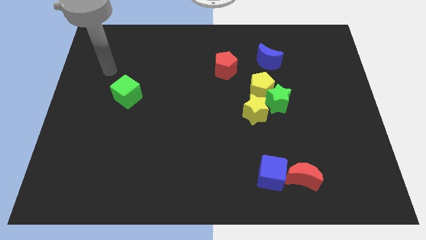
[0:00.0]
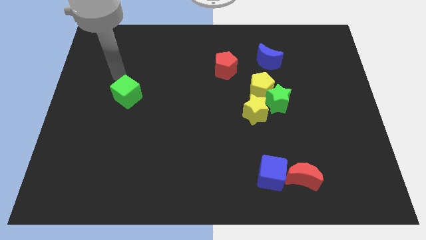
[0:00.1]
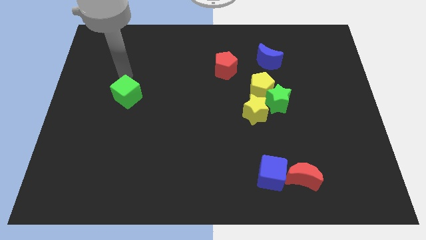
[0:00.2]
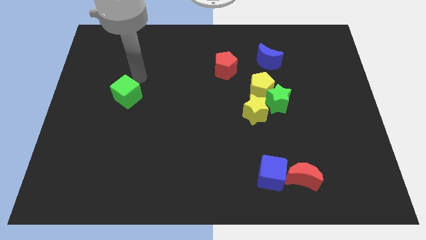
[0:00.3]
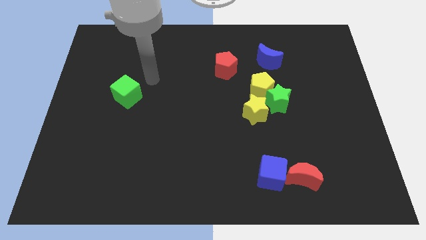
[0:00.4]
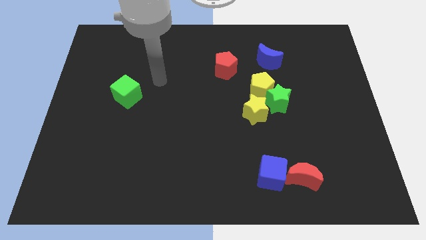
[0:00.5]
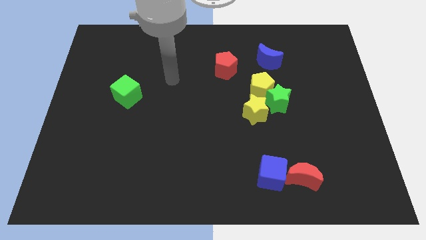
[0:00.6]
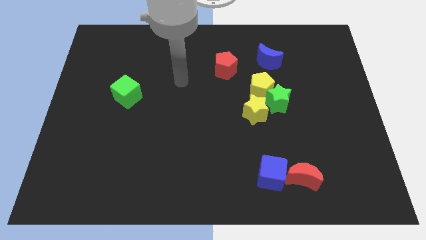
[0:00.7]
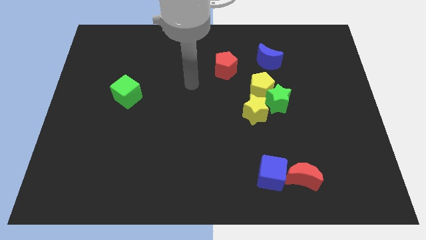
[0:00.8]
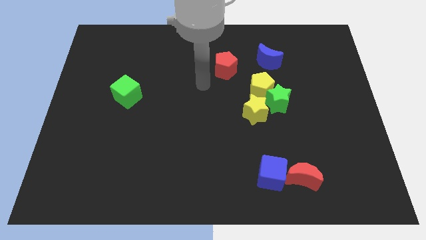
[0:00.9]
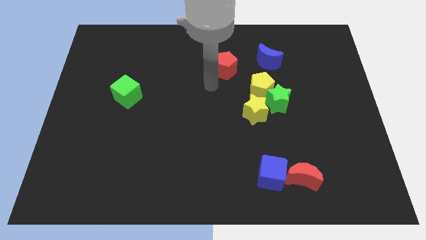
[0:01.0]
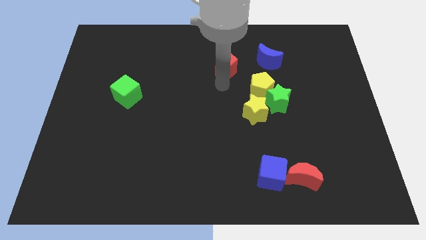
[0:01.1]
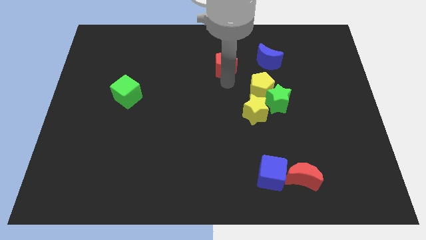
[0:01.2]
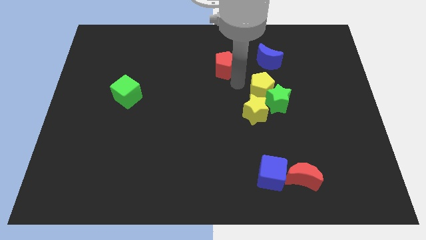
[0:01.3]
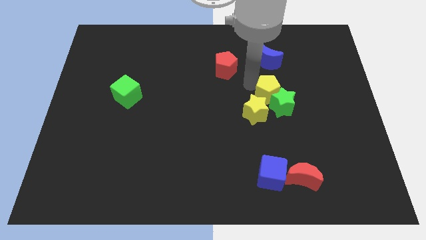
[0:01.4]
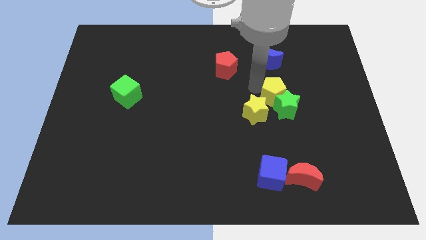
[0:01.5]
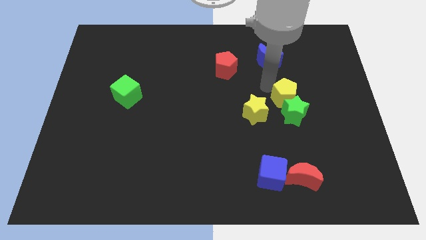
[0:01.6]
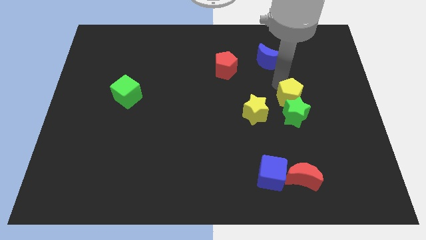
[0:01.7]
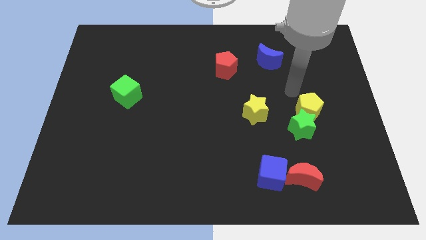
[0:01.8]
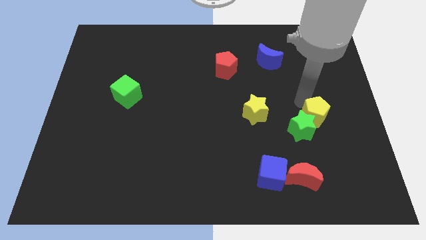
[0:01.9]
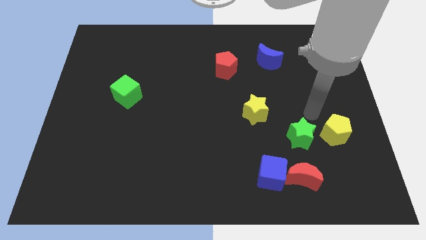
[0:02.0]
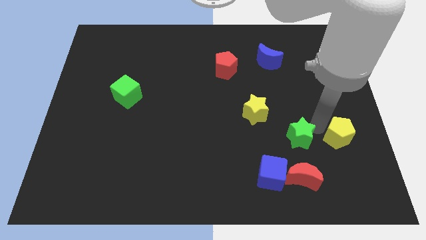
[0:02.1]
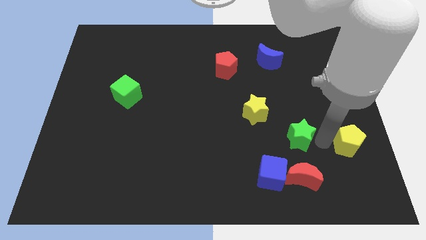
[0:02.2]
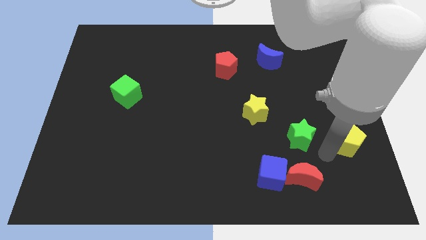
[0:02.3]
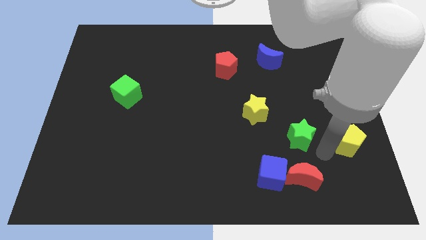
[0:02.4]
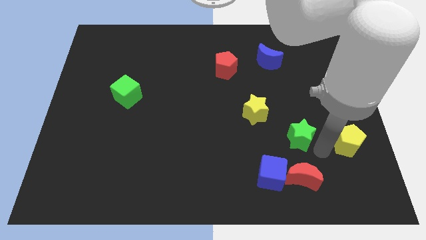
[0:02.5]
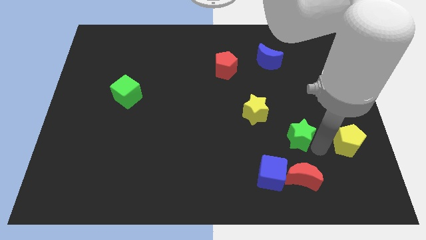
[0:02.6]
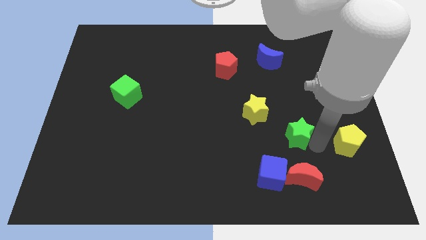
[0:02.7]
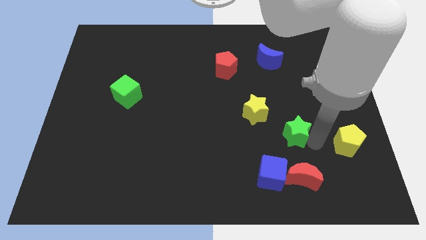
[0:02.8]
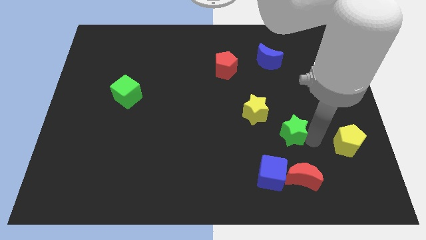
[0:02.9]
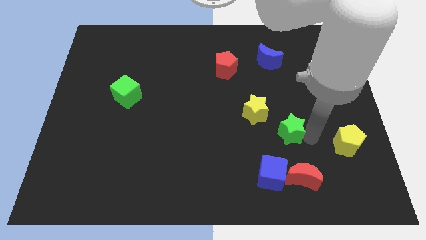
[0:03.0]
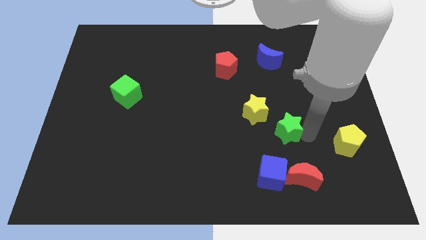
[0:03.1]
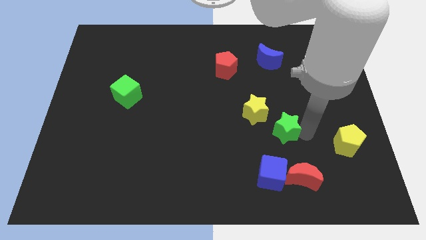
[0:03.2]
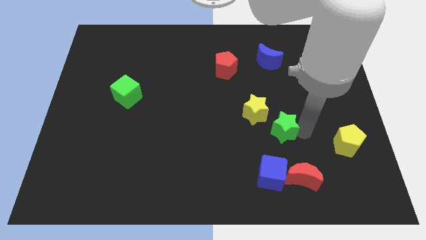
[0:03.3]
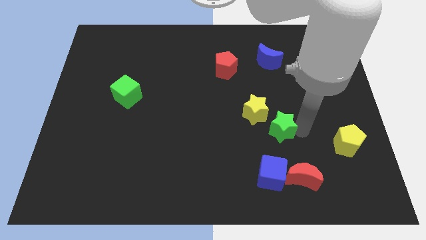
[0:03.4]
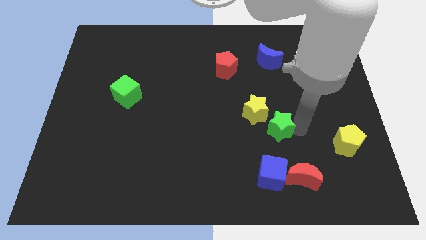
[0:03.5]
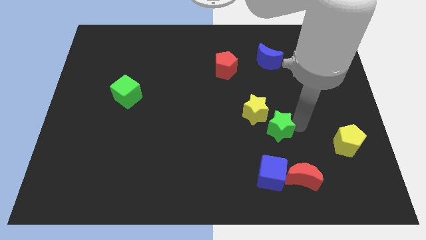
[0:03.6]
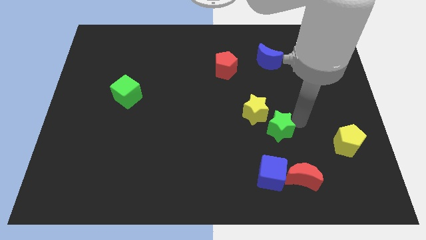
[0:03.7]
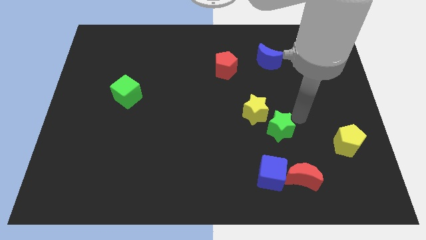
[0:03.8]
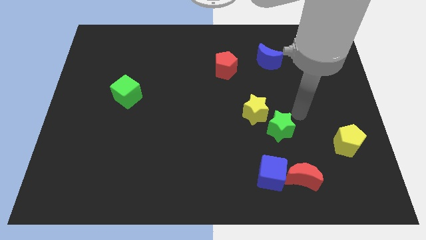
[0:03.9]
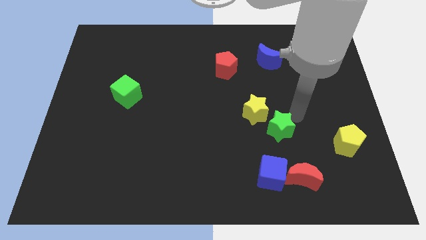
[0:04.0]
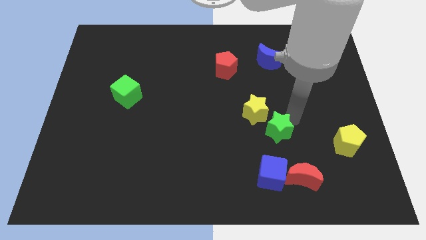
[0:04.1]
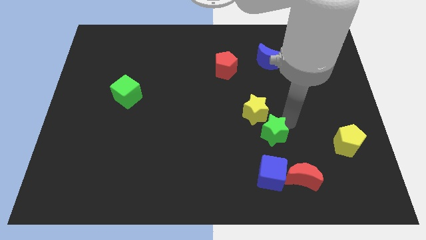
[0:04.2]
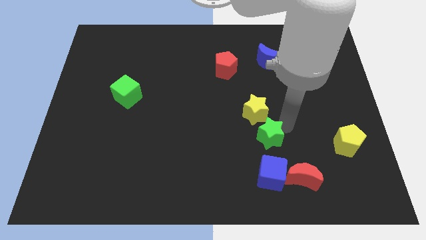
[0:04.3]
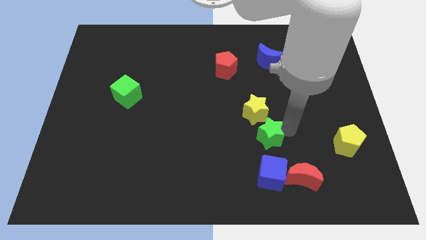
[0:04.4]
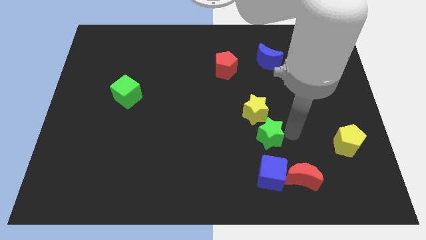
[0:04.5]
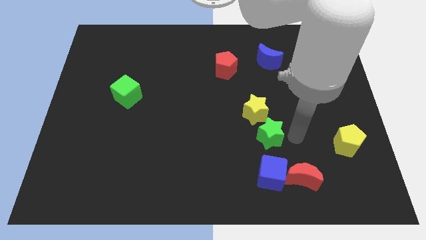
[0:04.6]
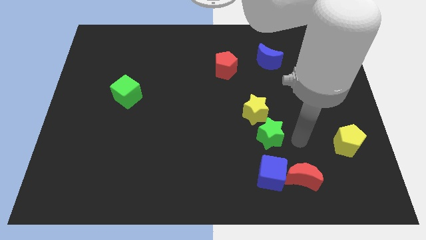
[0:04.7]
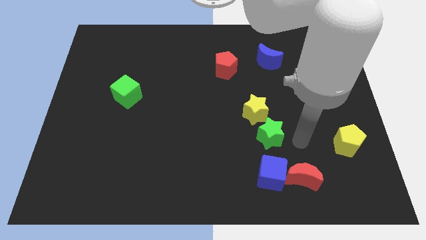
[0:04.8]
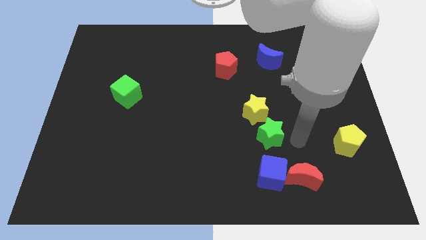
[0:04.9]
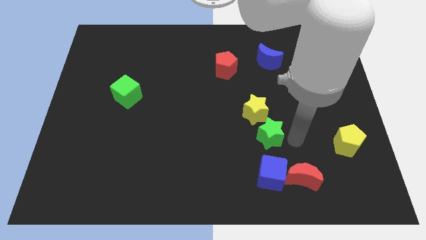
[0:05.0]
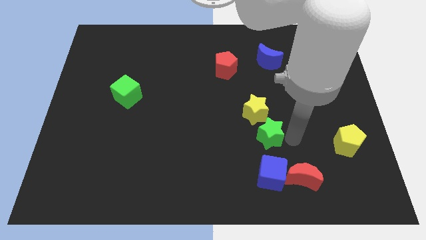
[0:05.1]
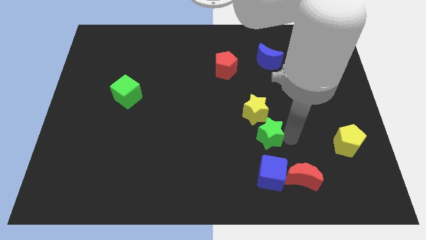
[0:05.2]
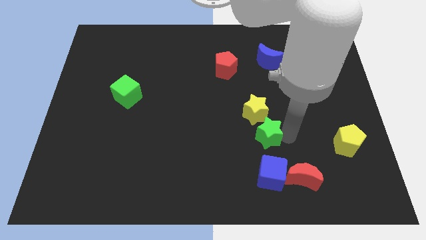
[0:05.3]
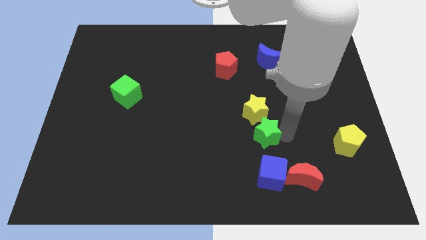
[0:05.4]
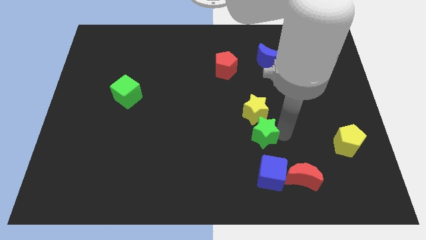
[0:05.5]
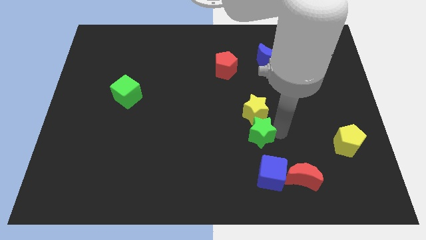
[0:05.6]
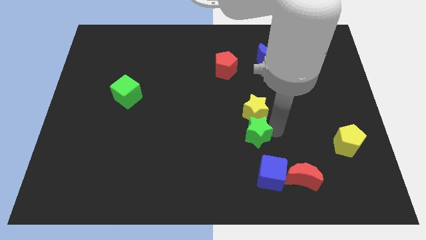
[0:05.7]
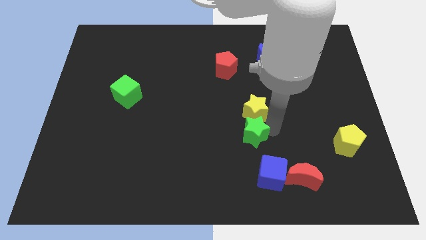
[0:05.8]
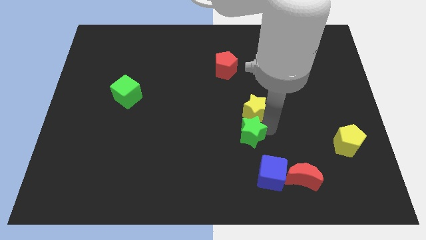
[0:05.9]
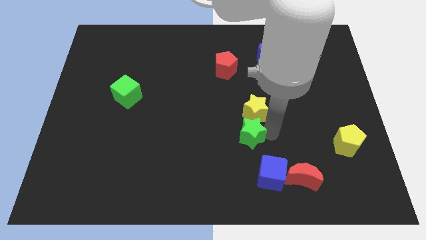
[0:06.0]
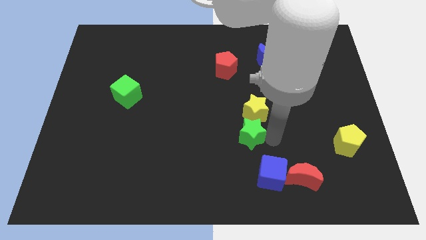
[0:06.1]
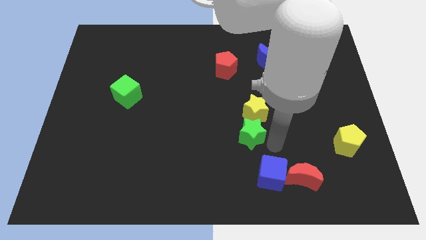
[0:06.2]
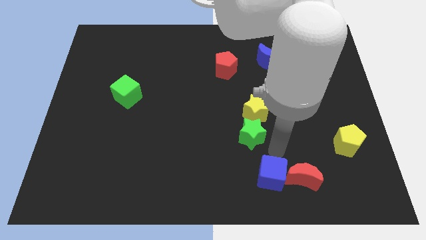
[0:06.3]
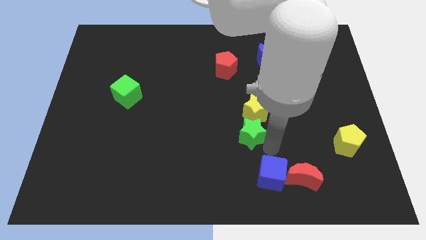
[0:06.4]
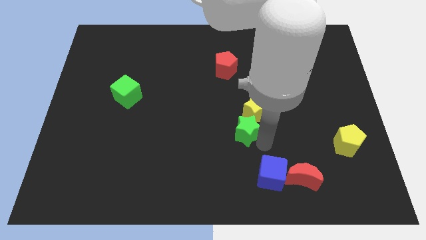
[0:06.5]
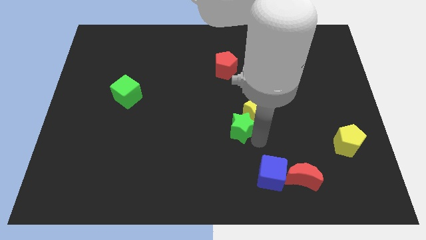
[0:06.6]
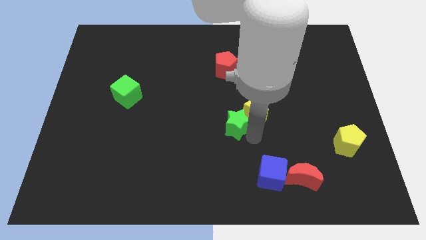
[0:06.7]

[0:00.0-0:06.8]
slide the green star somewhat to the left

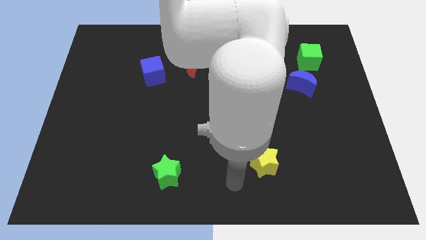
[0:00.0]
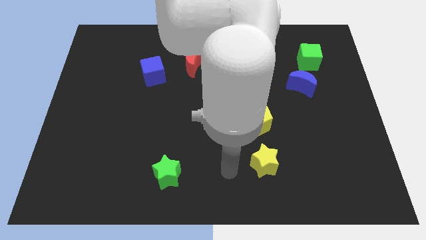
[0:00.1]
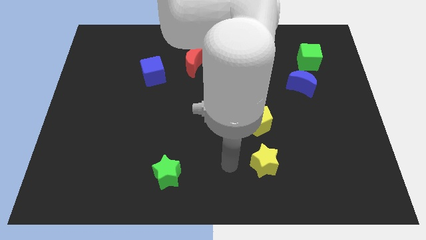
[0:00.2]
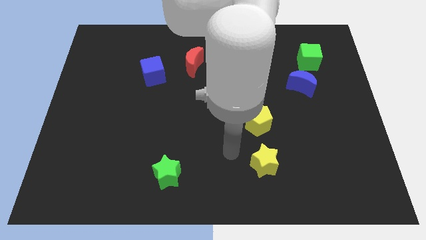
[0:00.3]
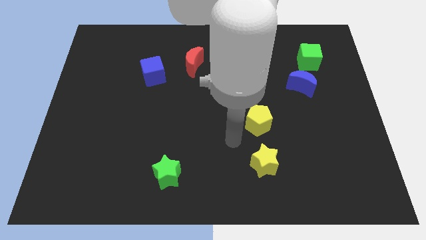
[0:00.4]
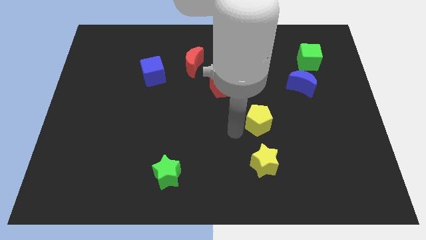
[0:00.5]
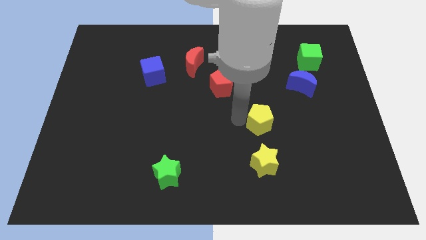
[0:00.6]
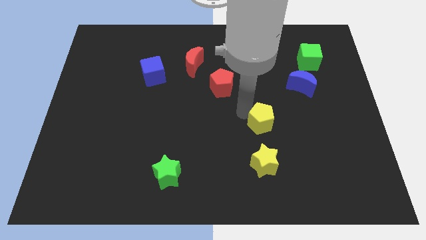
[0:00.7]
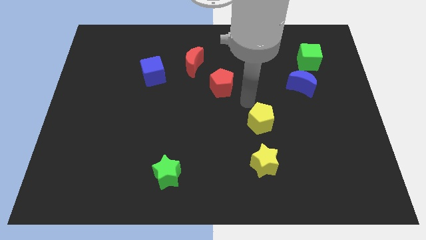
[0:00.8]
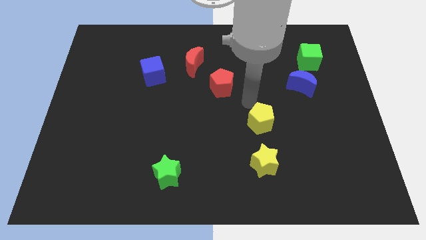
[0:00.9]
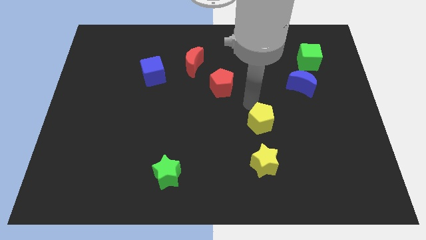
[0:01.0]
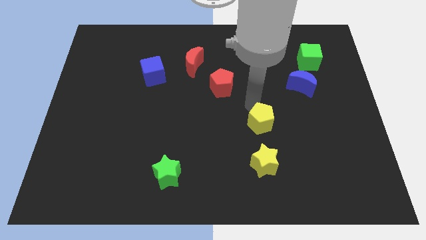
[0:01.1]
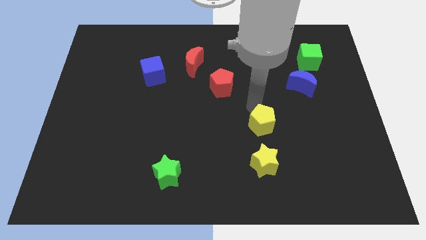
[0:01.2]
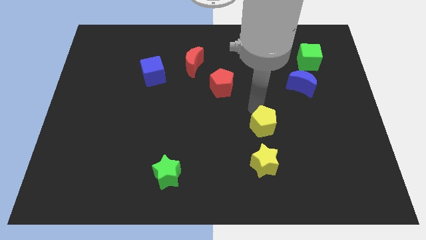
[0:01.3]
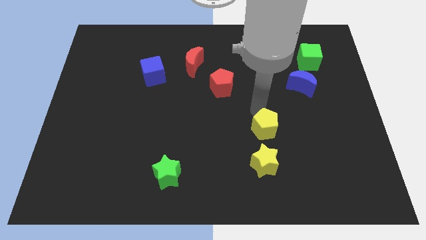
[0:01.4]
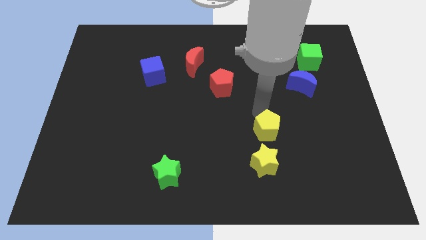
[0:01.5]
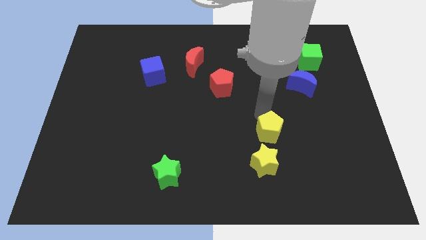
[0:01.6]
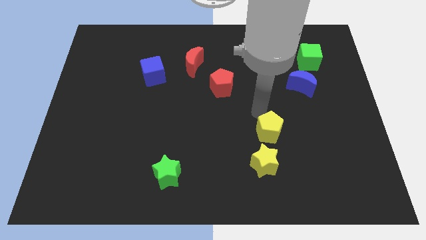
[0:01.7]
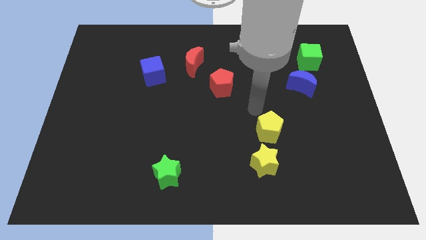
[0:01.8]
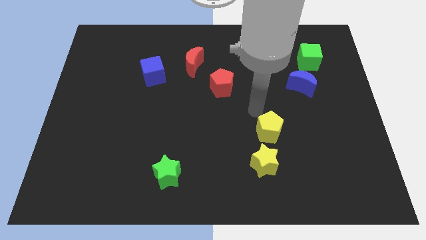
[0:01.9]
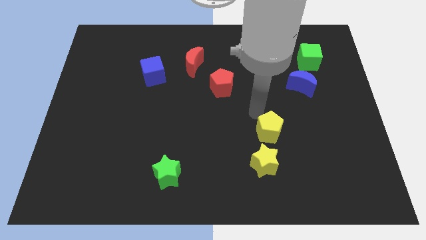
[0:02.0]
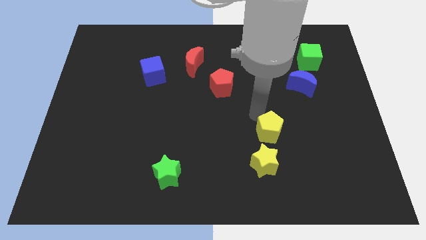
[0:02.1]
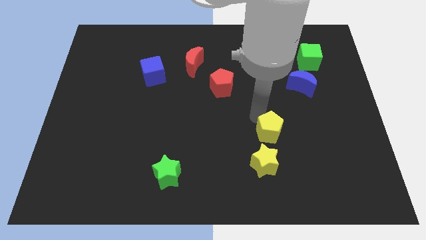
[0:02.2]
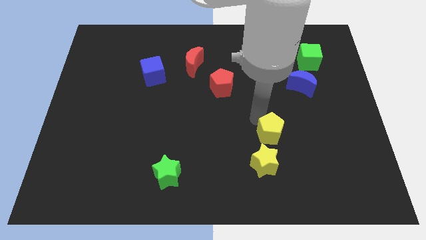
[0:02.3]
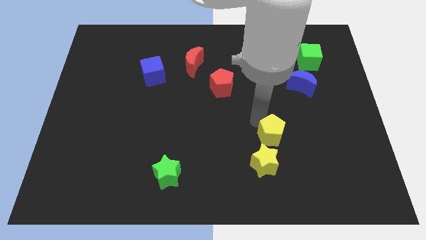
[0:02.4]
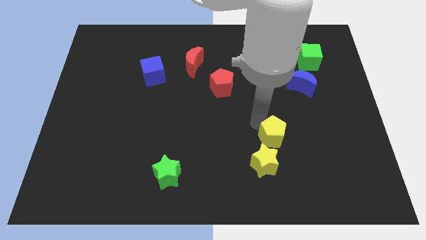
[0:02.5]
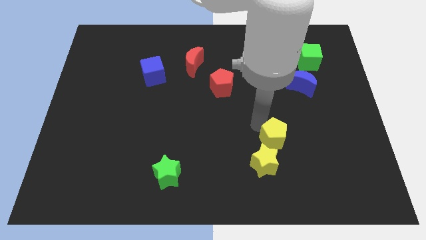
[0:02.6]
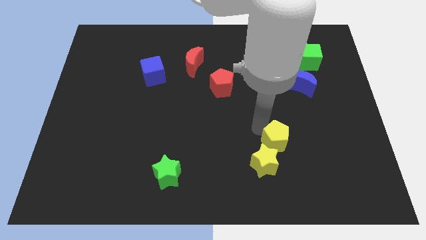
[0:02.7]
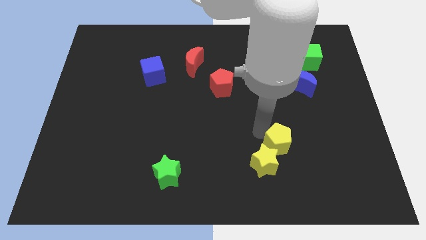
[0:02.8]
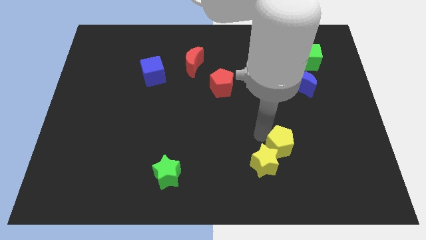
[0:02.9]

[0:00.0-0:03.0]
slightly move the yellow pentagon down and to the right diagonally
